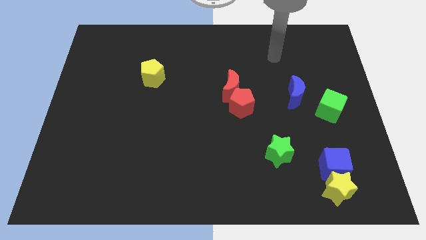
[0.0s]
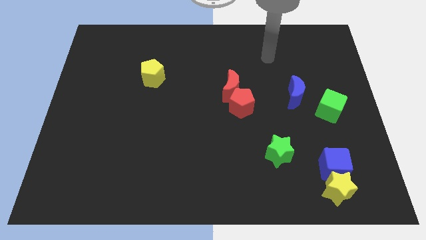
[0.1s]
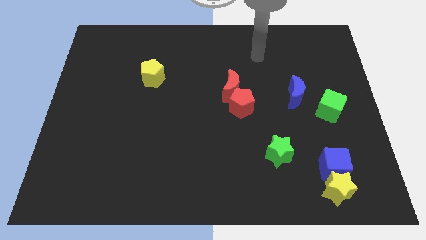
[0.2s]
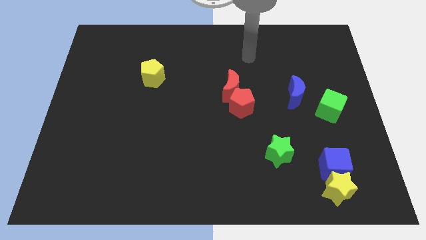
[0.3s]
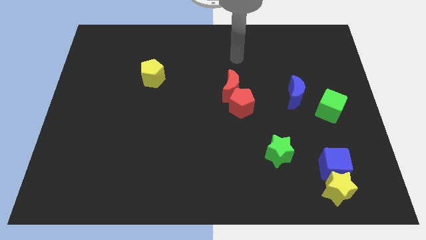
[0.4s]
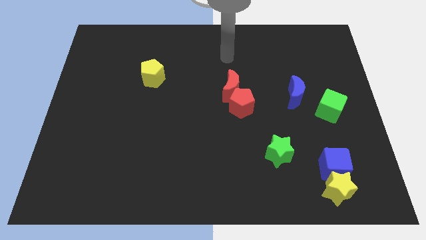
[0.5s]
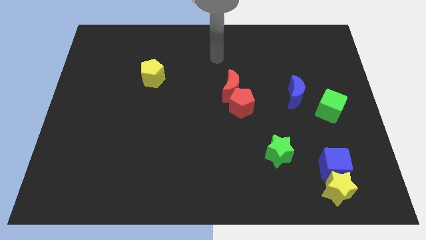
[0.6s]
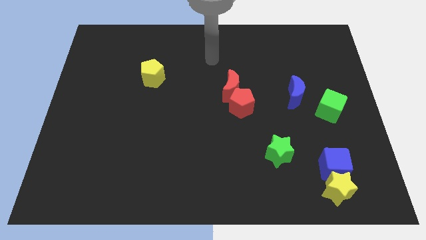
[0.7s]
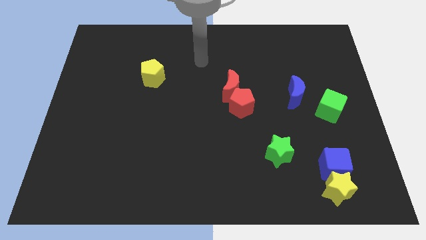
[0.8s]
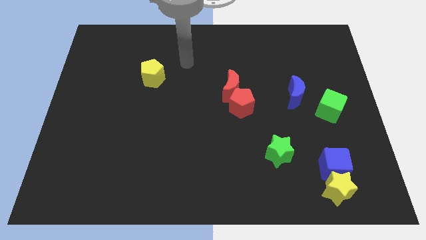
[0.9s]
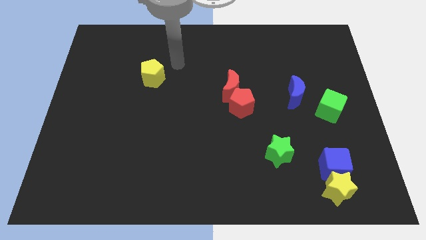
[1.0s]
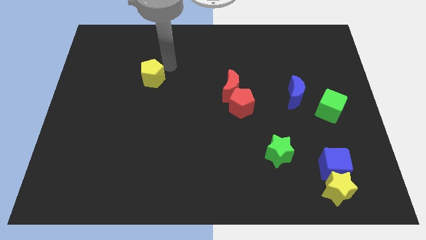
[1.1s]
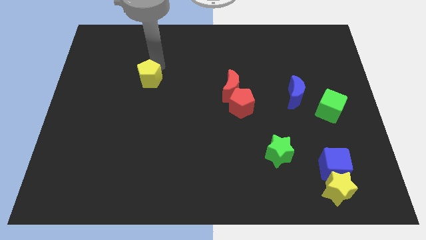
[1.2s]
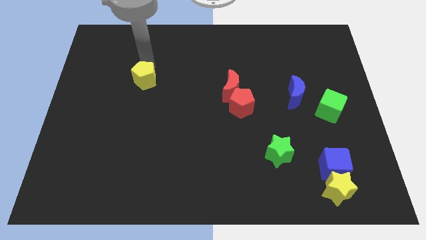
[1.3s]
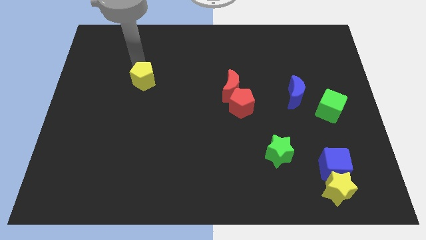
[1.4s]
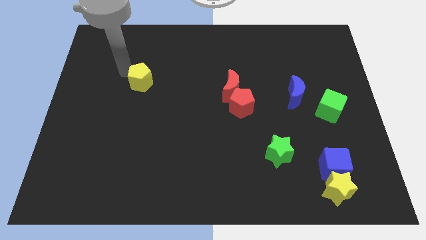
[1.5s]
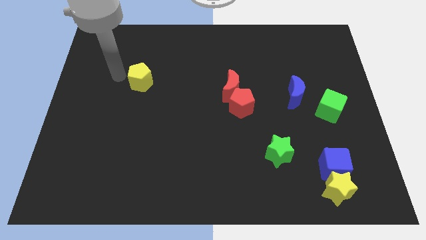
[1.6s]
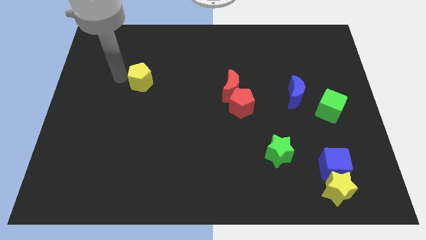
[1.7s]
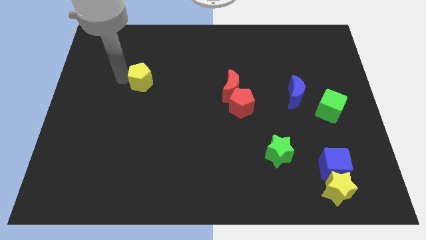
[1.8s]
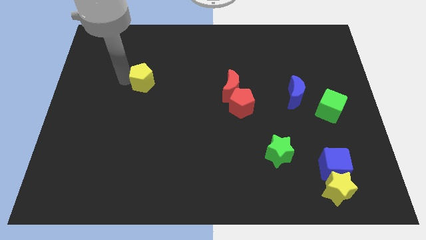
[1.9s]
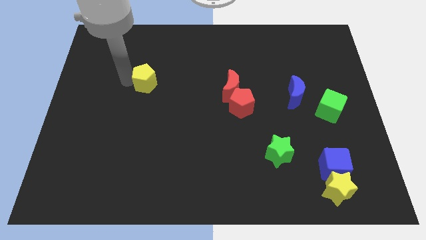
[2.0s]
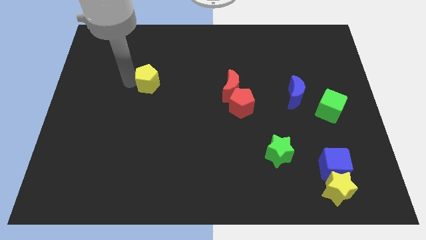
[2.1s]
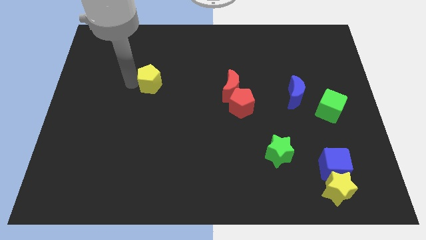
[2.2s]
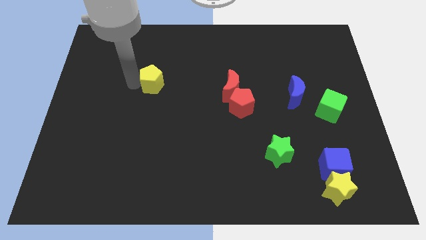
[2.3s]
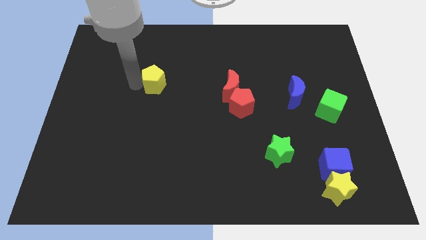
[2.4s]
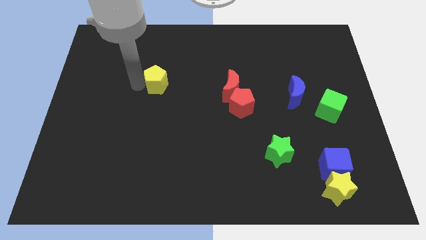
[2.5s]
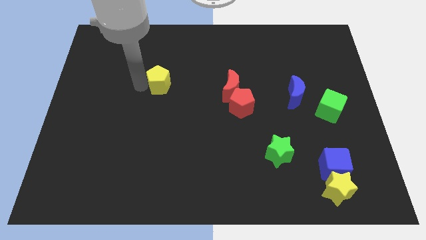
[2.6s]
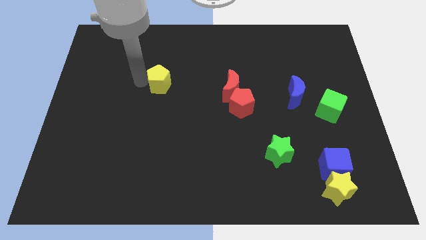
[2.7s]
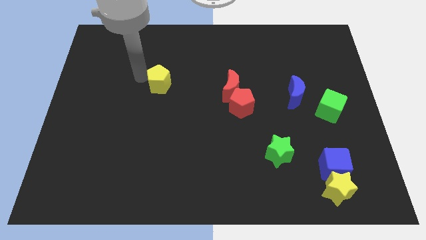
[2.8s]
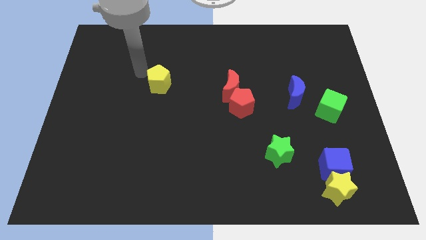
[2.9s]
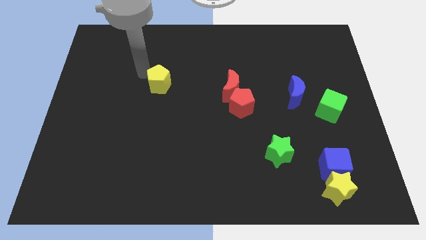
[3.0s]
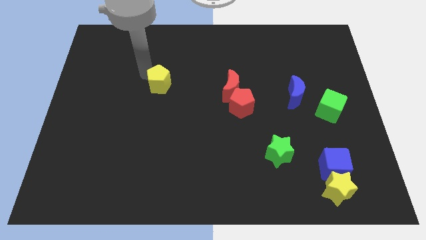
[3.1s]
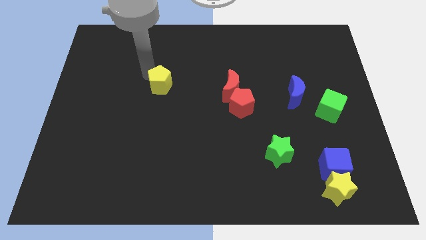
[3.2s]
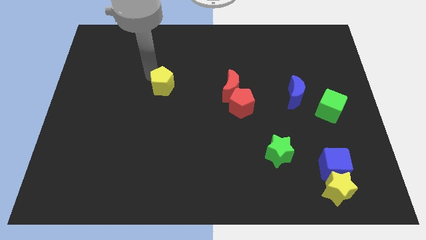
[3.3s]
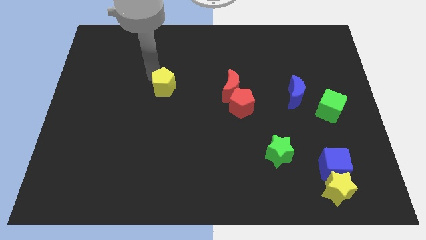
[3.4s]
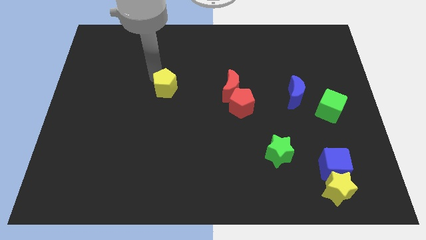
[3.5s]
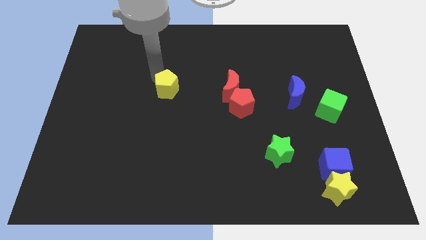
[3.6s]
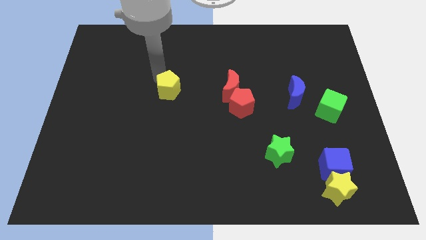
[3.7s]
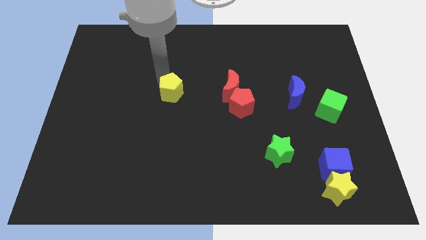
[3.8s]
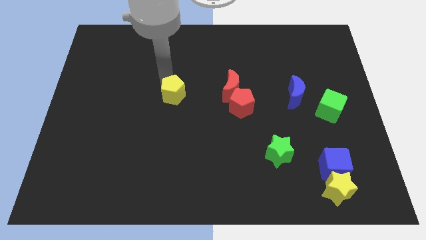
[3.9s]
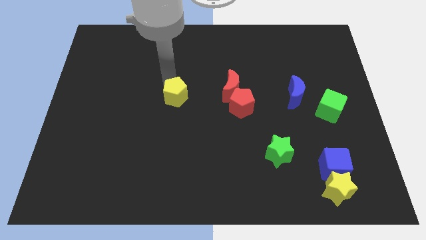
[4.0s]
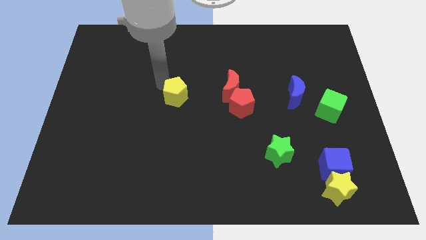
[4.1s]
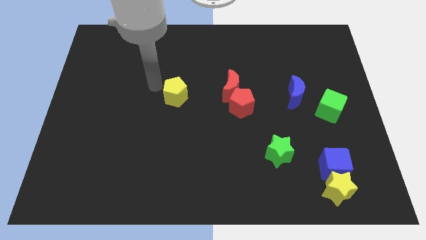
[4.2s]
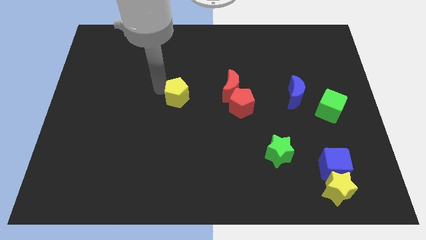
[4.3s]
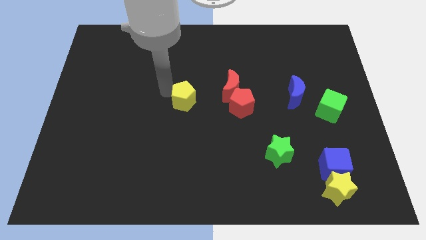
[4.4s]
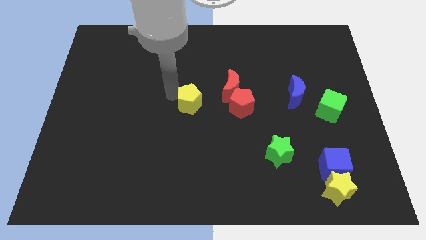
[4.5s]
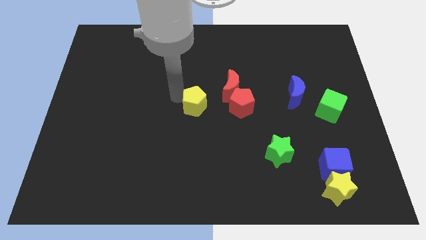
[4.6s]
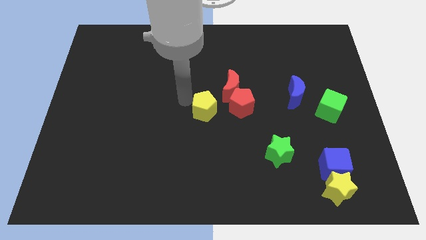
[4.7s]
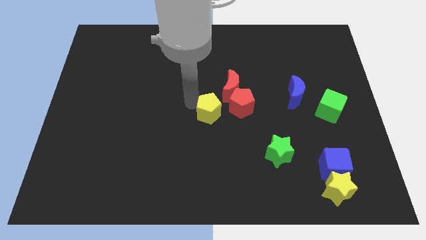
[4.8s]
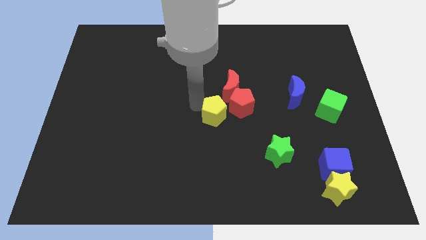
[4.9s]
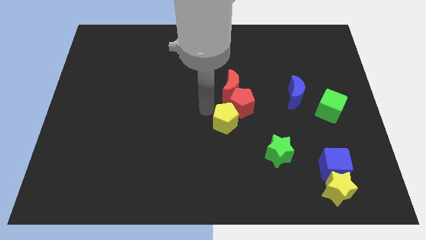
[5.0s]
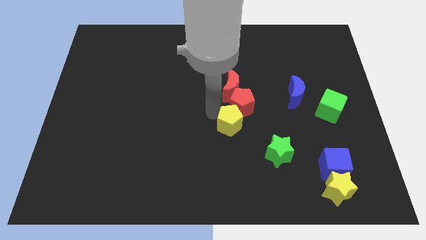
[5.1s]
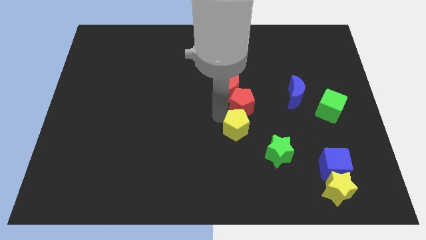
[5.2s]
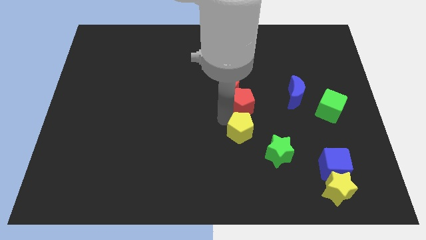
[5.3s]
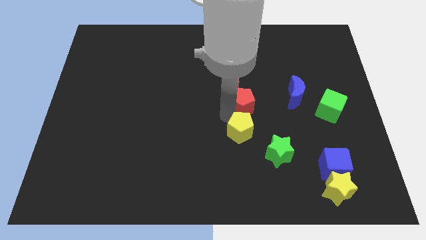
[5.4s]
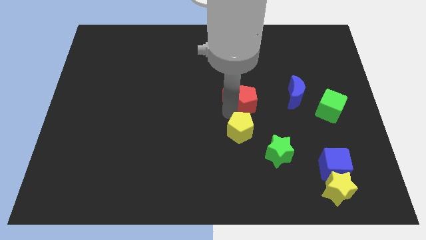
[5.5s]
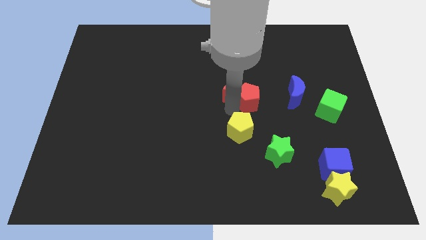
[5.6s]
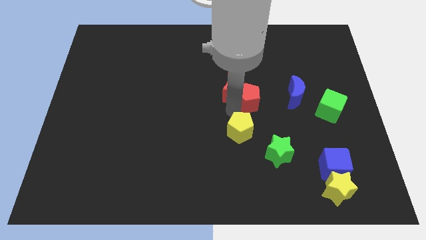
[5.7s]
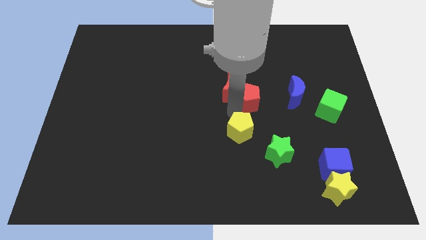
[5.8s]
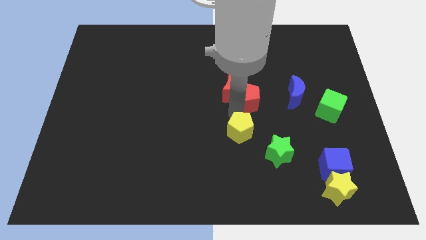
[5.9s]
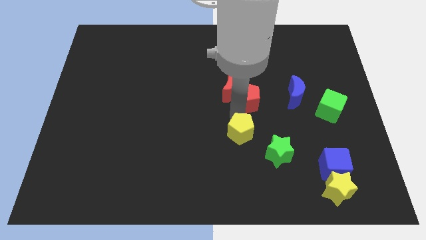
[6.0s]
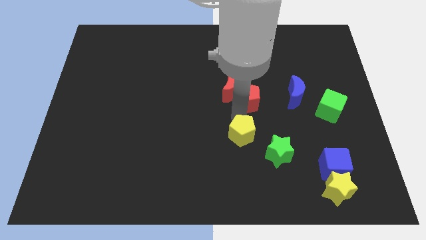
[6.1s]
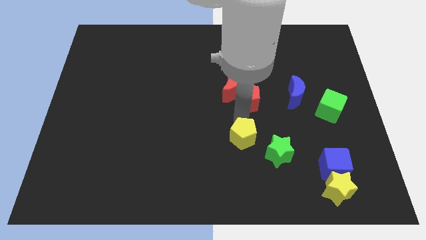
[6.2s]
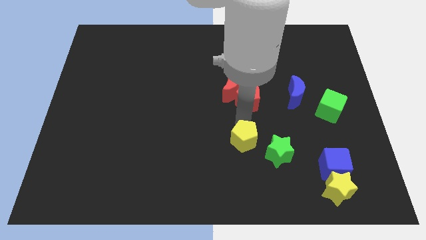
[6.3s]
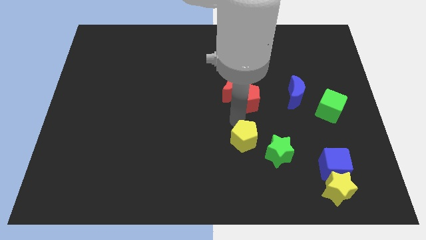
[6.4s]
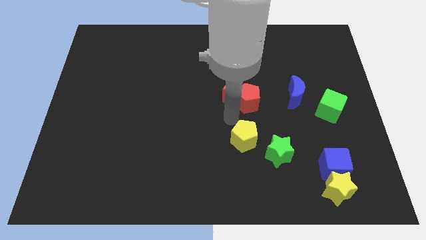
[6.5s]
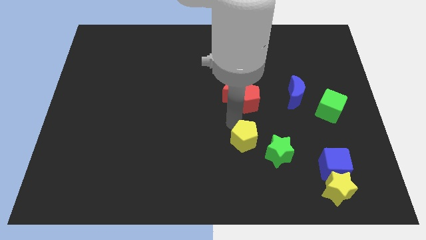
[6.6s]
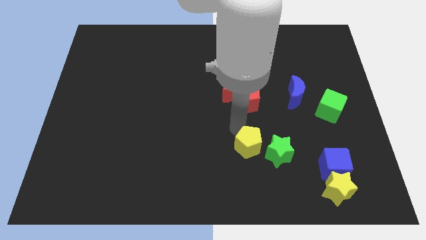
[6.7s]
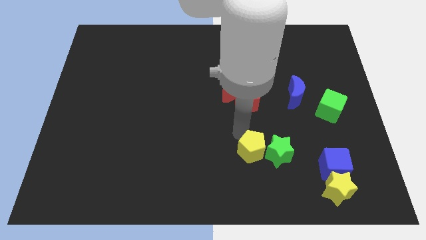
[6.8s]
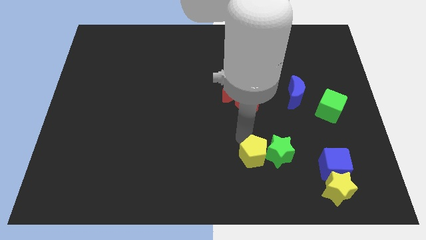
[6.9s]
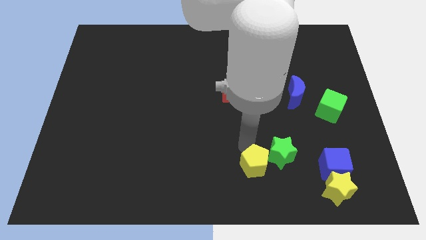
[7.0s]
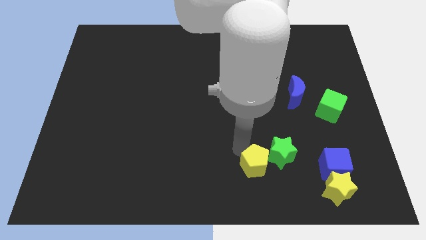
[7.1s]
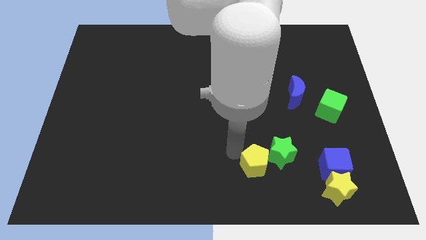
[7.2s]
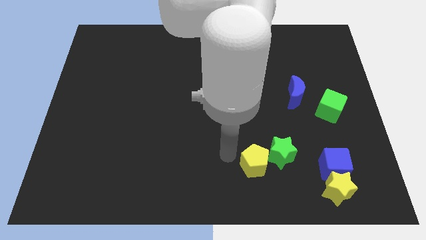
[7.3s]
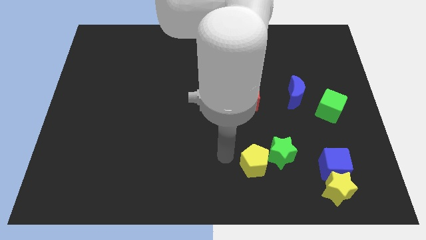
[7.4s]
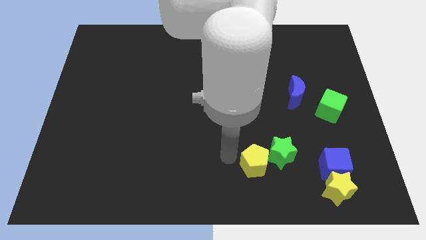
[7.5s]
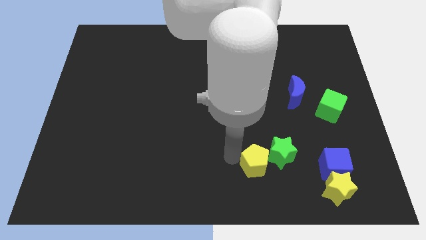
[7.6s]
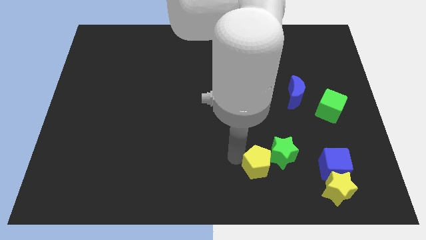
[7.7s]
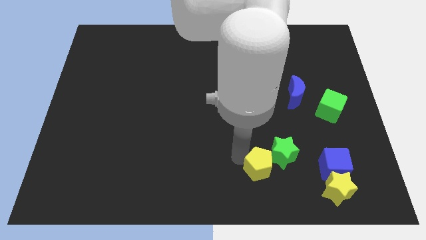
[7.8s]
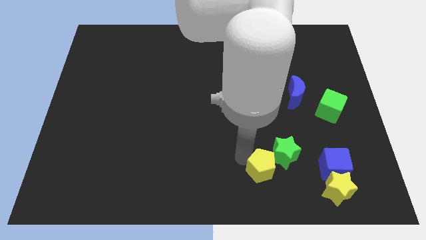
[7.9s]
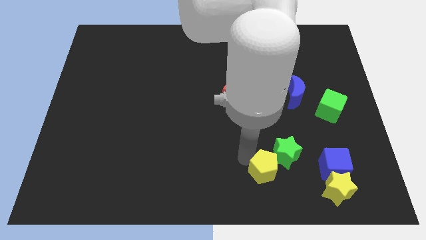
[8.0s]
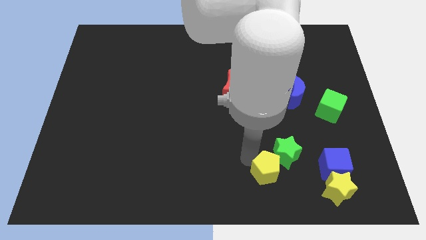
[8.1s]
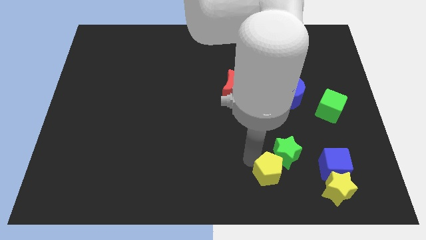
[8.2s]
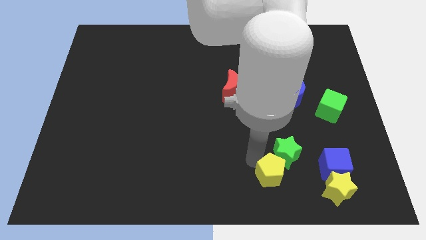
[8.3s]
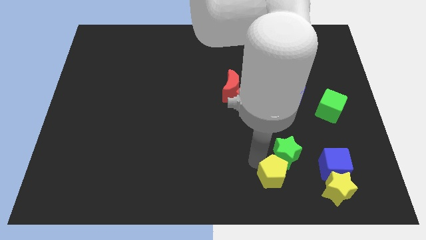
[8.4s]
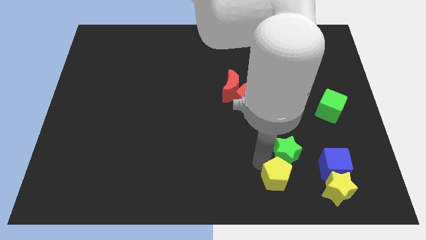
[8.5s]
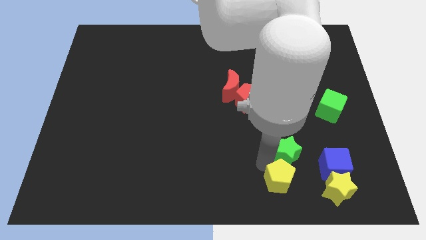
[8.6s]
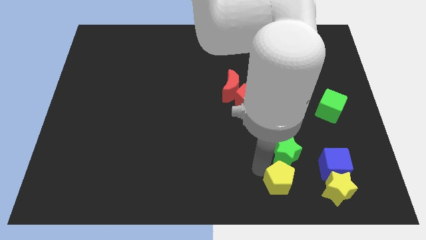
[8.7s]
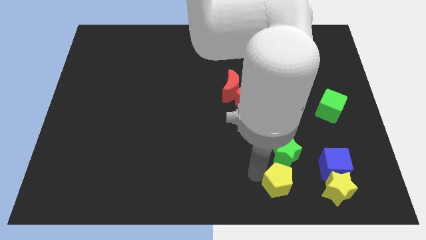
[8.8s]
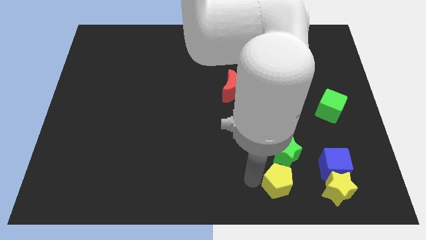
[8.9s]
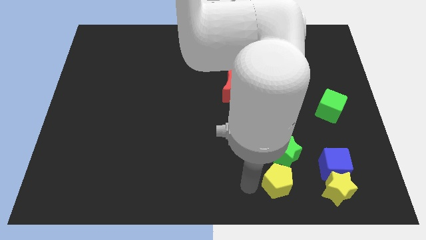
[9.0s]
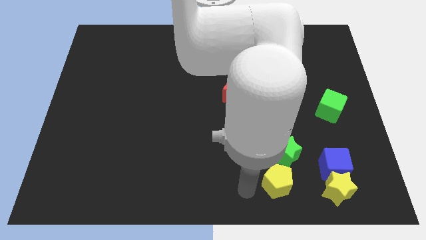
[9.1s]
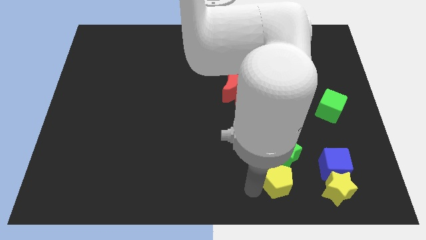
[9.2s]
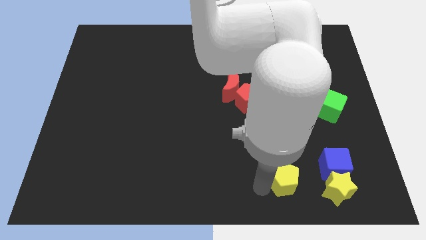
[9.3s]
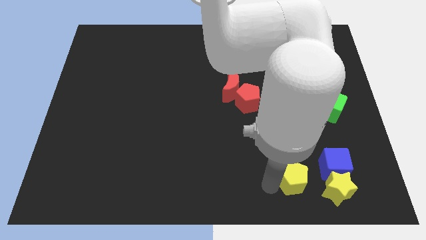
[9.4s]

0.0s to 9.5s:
put the yellow pentagon to the bottom right side of the green star
